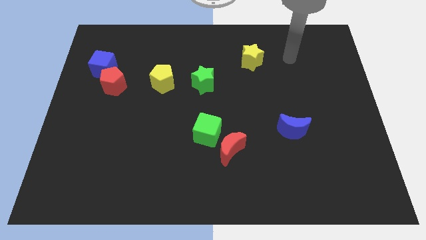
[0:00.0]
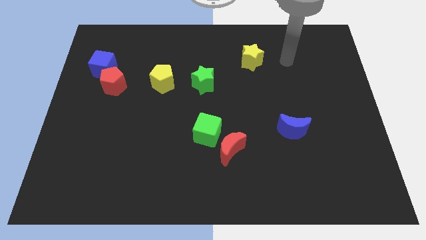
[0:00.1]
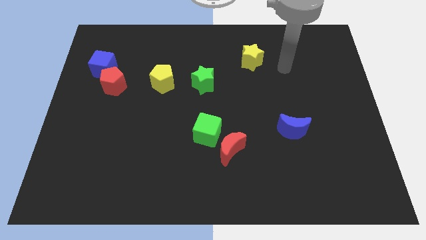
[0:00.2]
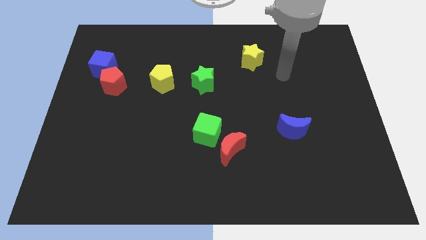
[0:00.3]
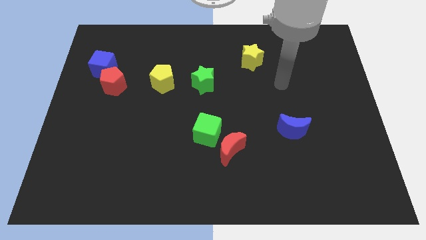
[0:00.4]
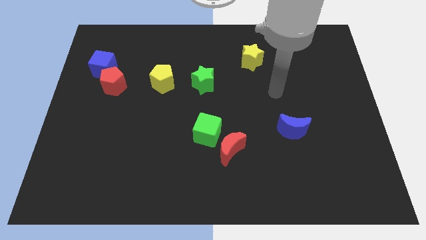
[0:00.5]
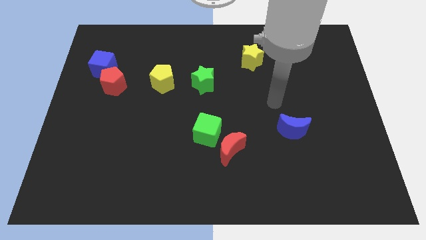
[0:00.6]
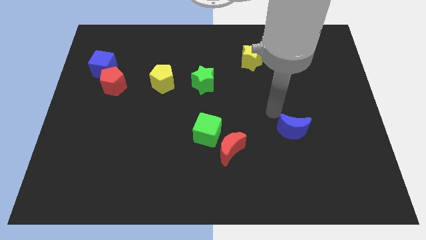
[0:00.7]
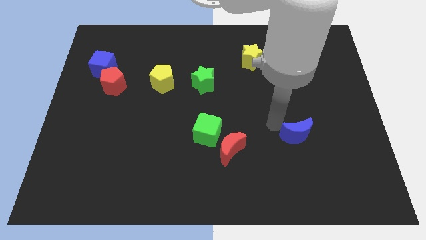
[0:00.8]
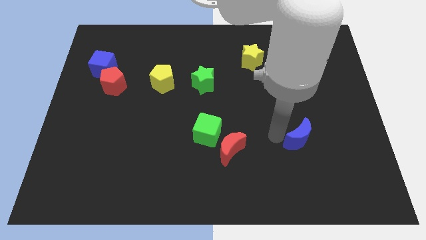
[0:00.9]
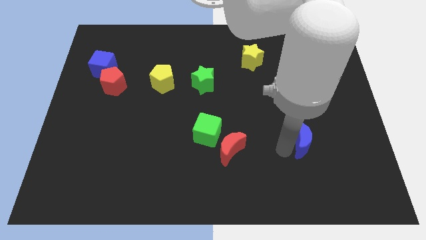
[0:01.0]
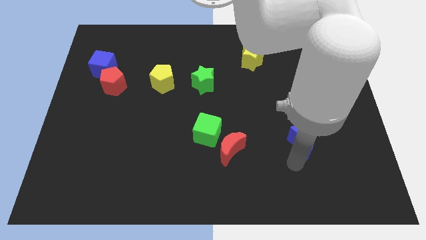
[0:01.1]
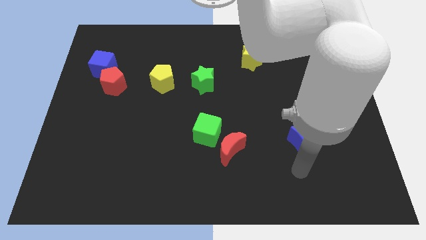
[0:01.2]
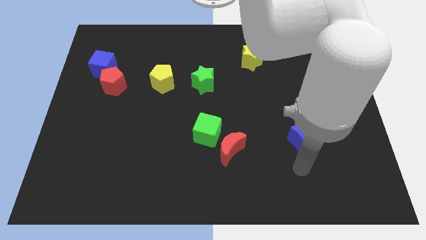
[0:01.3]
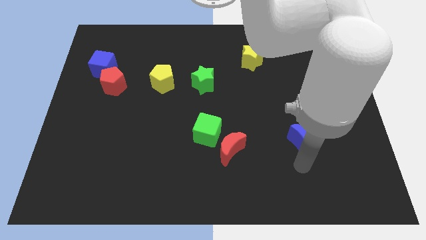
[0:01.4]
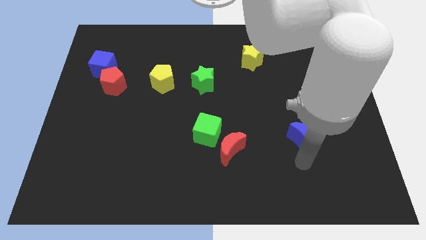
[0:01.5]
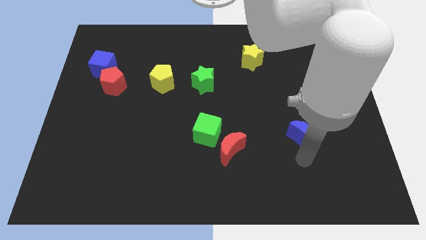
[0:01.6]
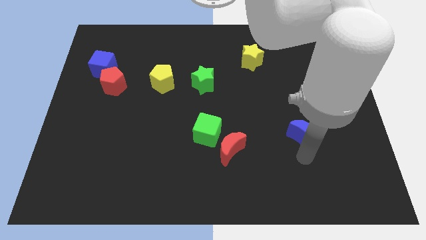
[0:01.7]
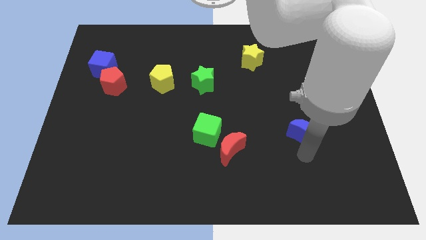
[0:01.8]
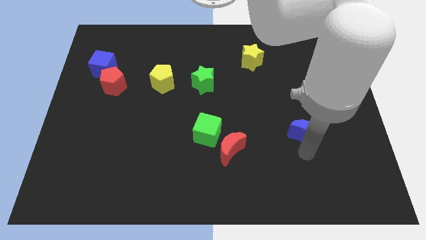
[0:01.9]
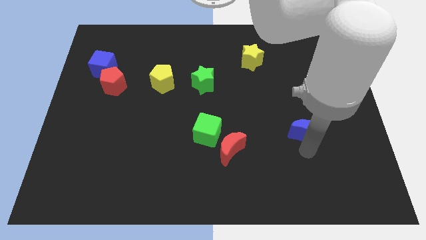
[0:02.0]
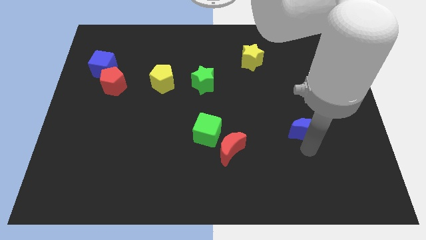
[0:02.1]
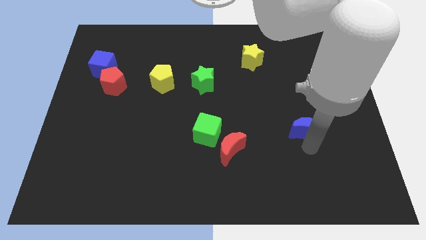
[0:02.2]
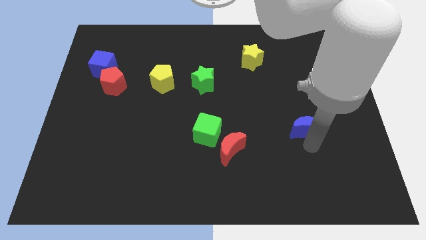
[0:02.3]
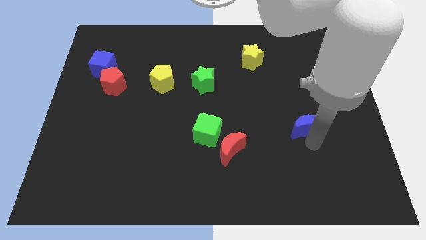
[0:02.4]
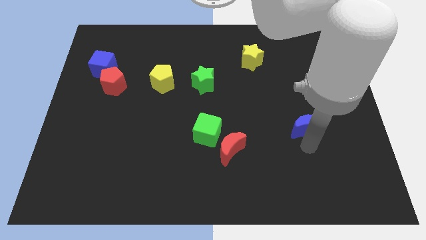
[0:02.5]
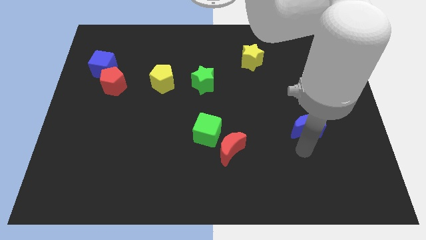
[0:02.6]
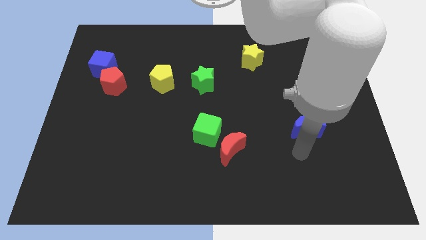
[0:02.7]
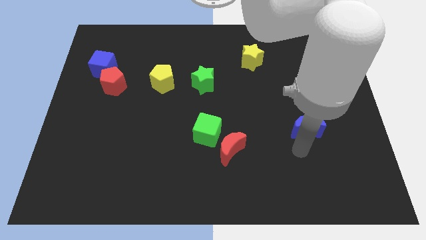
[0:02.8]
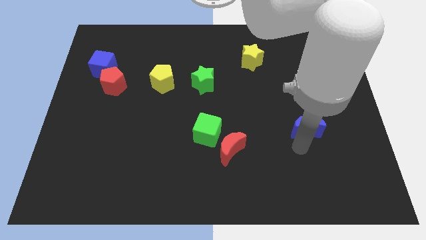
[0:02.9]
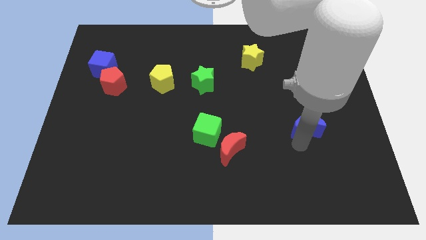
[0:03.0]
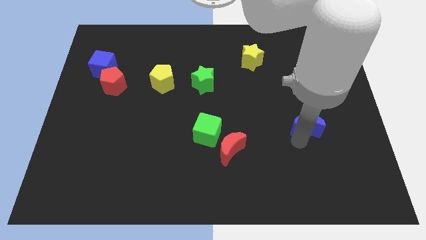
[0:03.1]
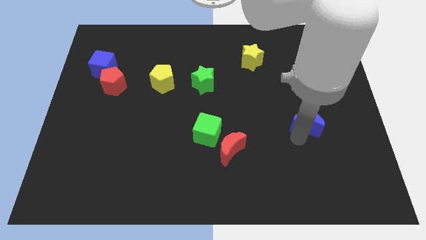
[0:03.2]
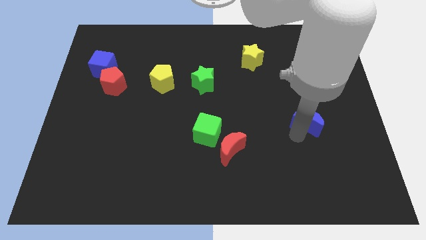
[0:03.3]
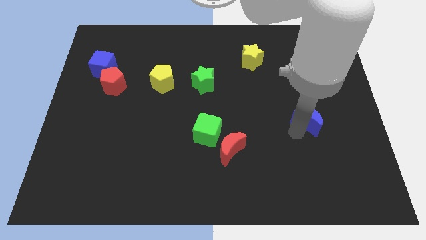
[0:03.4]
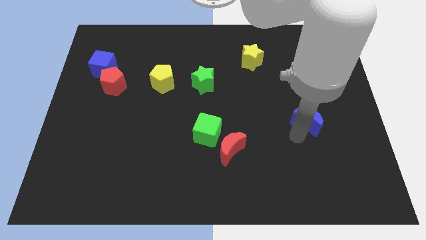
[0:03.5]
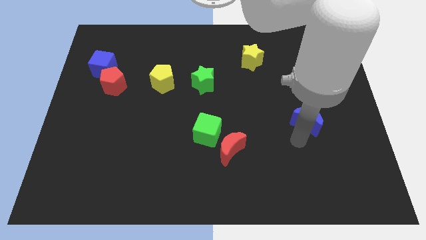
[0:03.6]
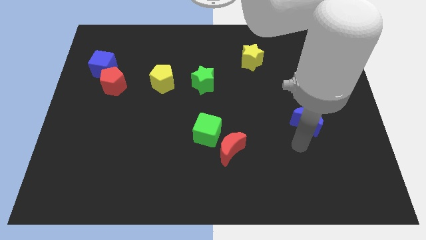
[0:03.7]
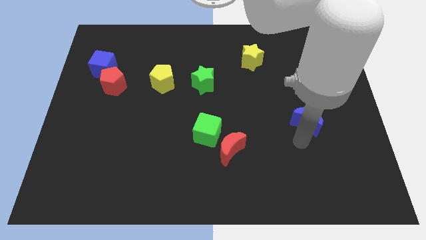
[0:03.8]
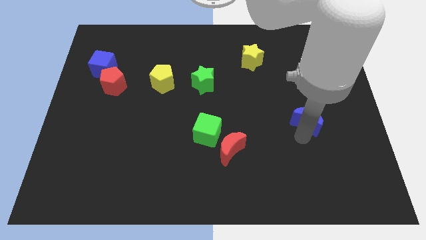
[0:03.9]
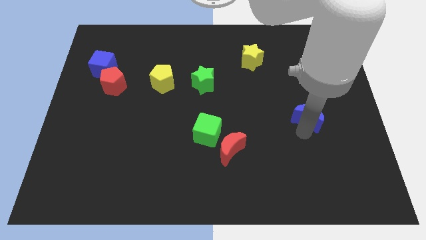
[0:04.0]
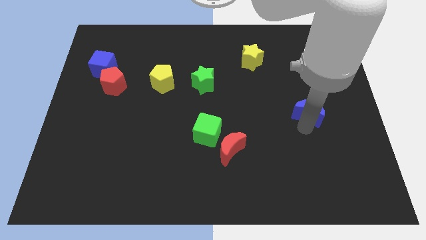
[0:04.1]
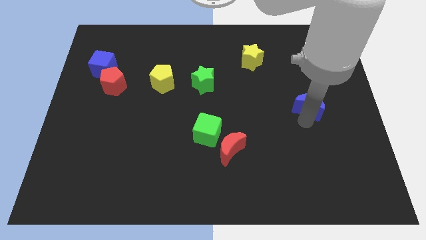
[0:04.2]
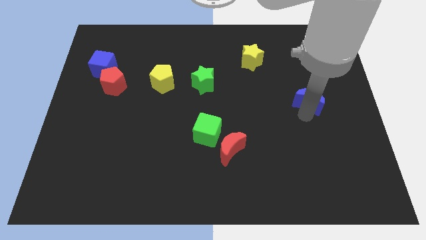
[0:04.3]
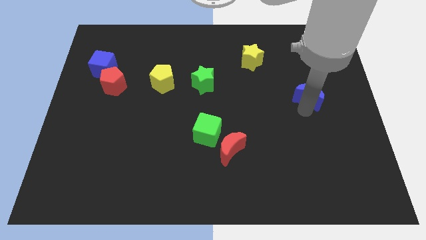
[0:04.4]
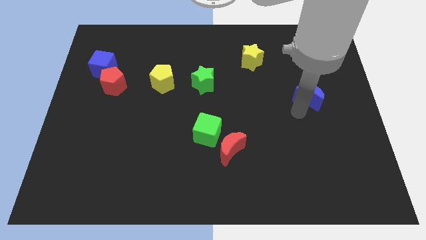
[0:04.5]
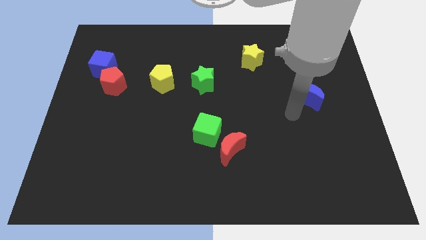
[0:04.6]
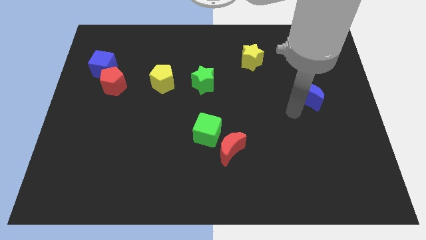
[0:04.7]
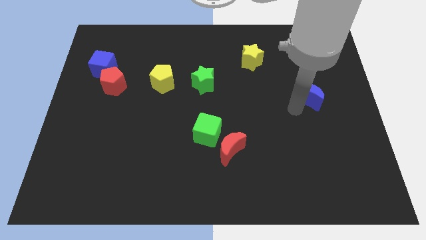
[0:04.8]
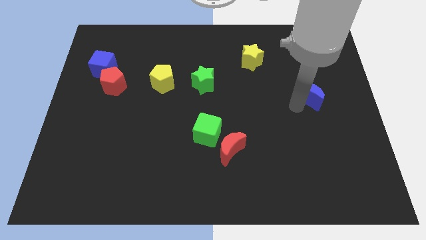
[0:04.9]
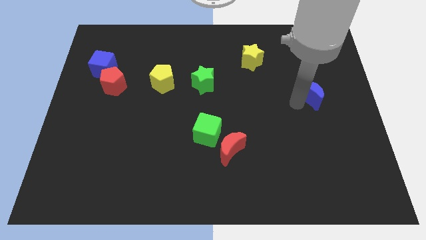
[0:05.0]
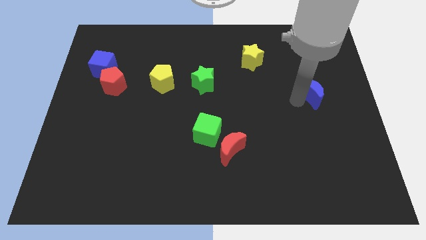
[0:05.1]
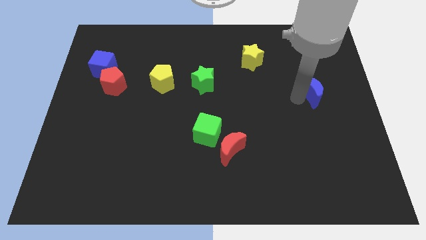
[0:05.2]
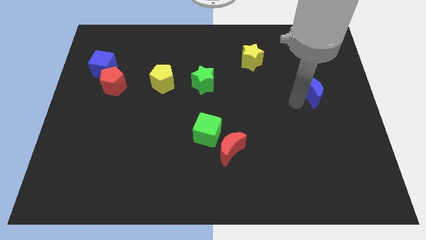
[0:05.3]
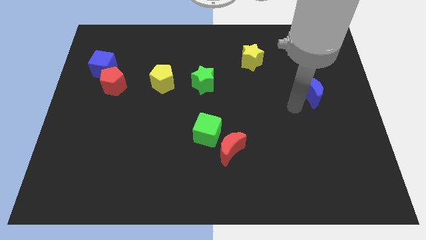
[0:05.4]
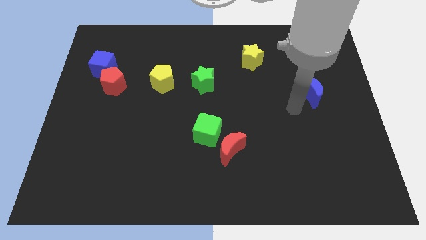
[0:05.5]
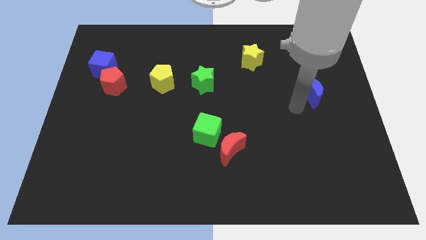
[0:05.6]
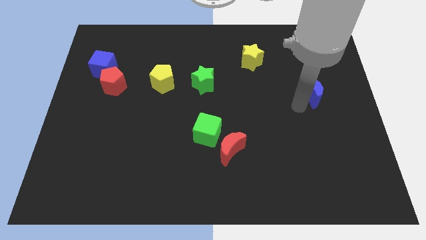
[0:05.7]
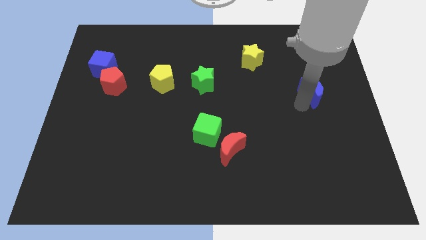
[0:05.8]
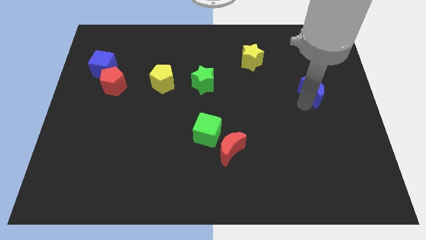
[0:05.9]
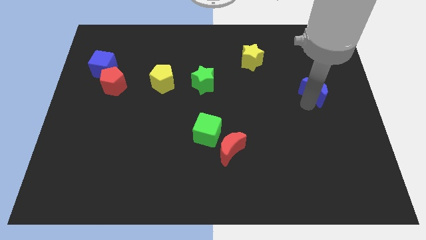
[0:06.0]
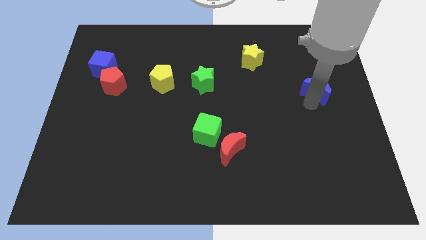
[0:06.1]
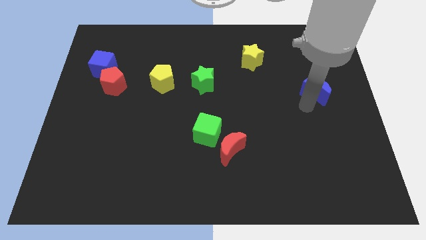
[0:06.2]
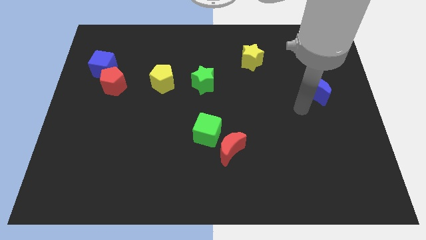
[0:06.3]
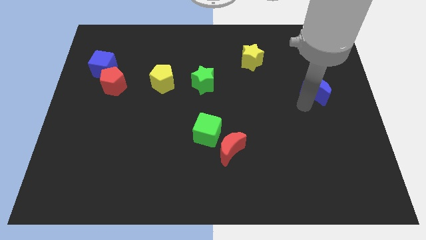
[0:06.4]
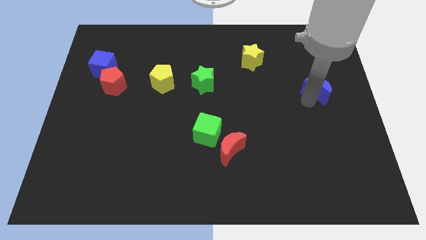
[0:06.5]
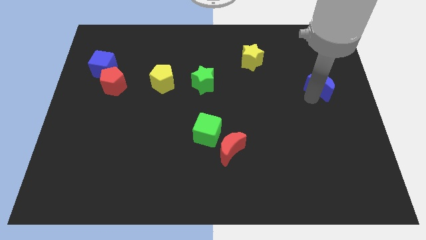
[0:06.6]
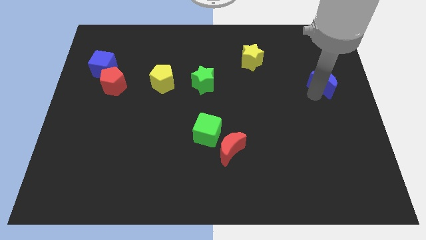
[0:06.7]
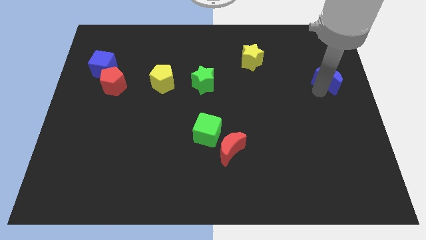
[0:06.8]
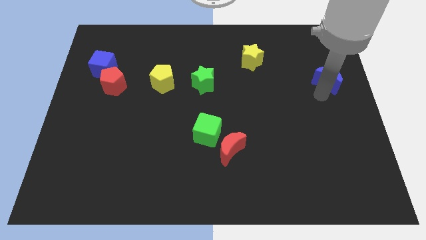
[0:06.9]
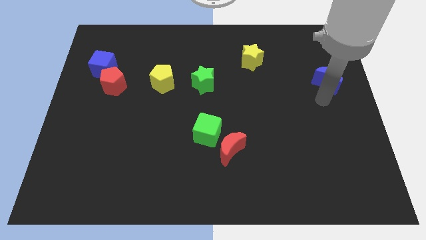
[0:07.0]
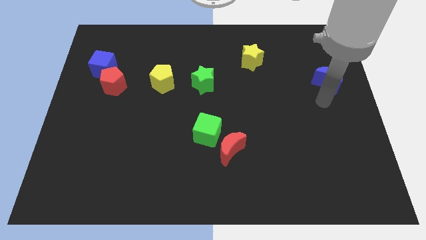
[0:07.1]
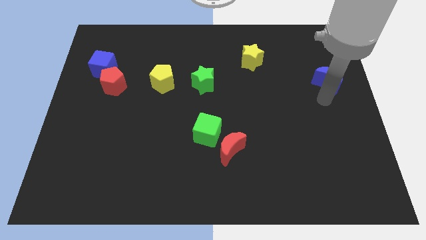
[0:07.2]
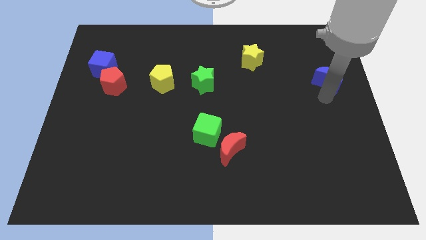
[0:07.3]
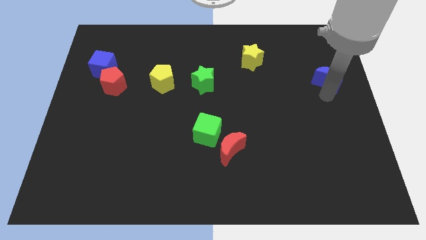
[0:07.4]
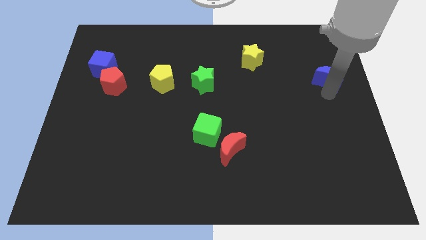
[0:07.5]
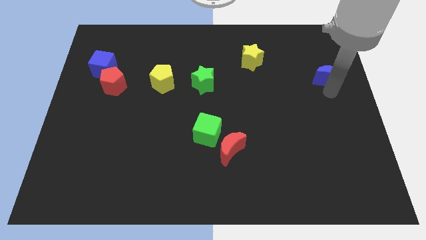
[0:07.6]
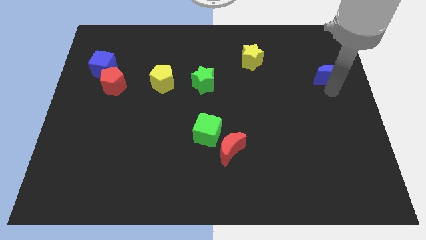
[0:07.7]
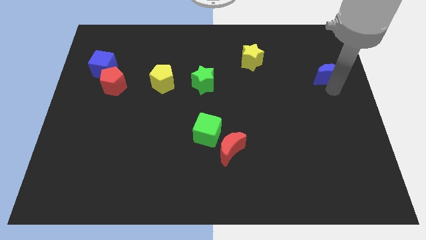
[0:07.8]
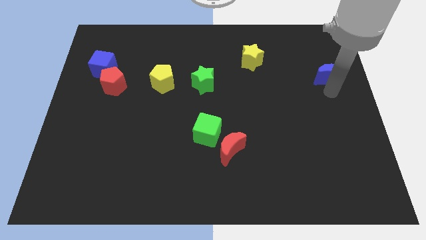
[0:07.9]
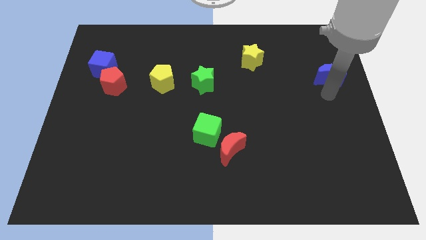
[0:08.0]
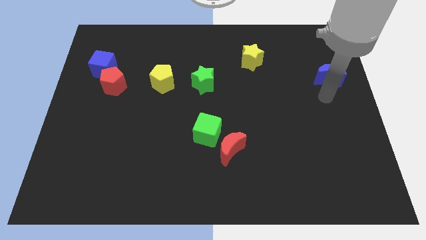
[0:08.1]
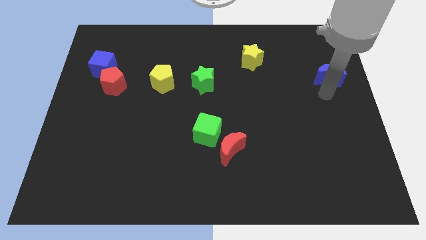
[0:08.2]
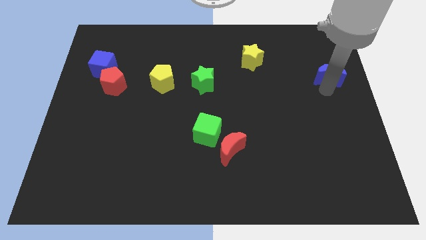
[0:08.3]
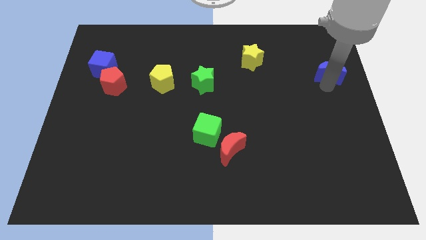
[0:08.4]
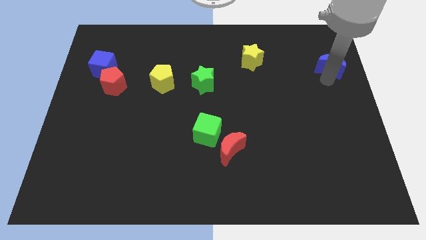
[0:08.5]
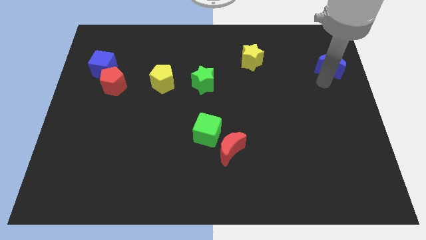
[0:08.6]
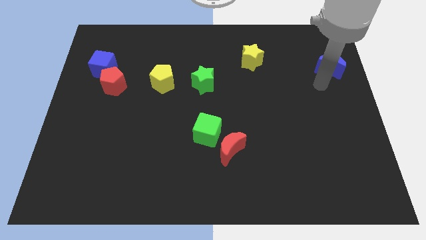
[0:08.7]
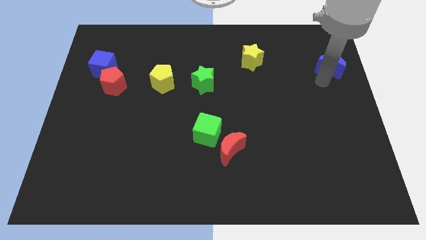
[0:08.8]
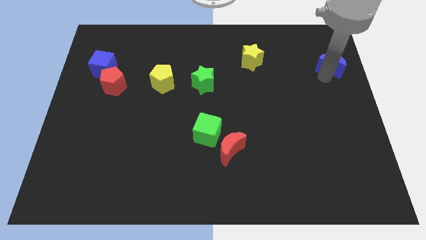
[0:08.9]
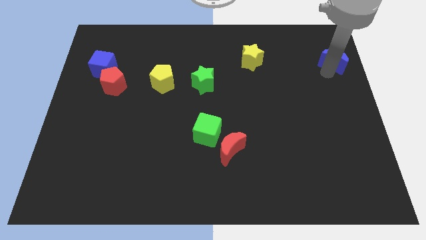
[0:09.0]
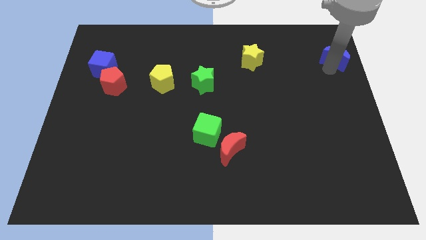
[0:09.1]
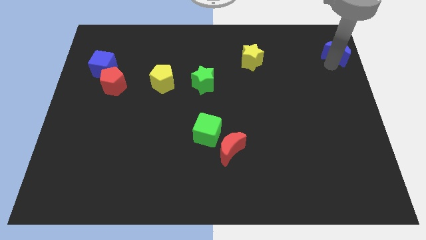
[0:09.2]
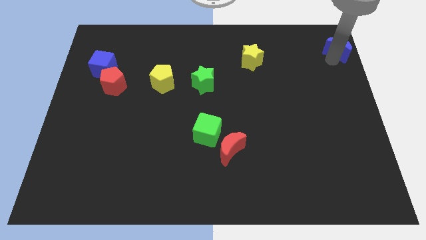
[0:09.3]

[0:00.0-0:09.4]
move the blue moon to the top right
